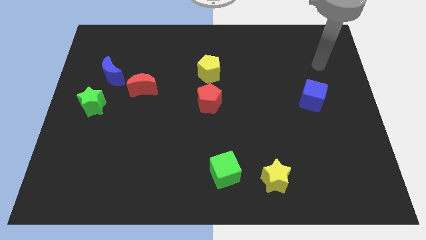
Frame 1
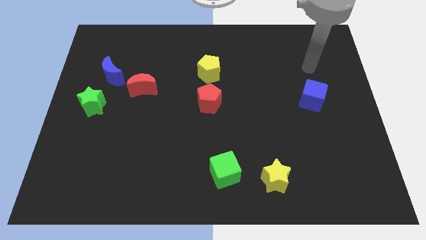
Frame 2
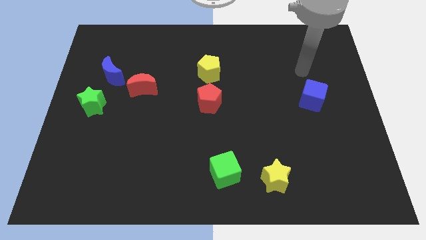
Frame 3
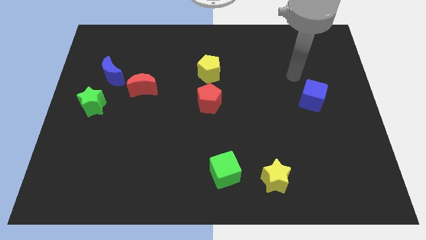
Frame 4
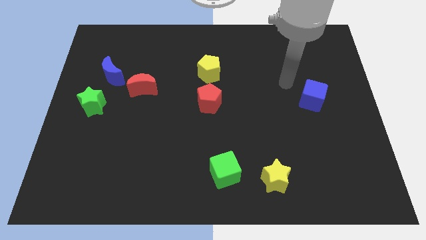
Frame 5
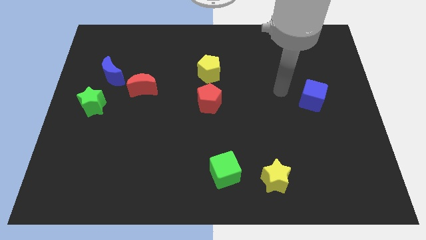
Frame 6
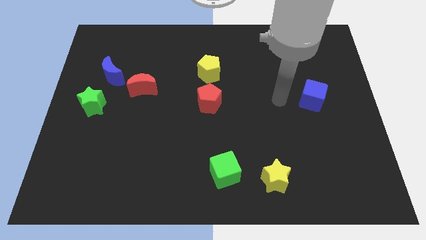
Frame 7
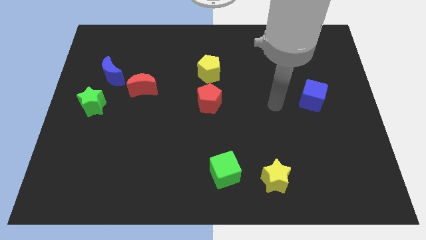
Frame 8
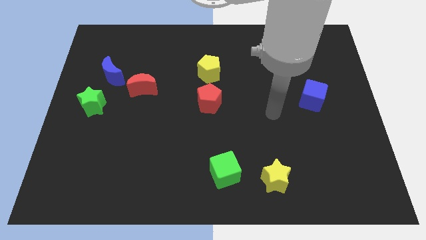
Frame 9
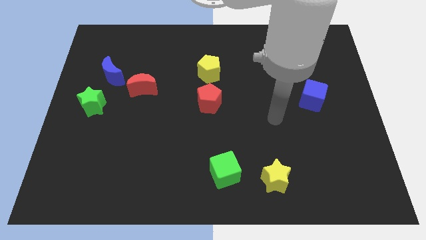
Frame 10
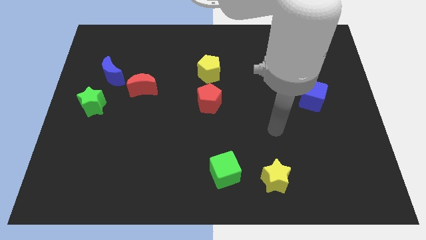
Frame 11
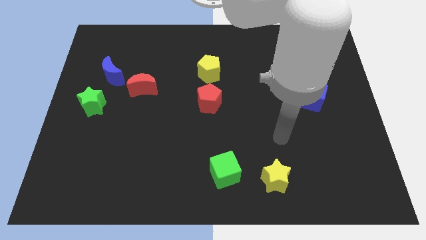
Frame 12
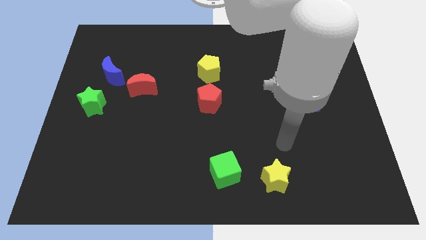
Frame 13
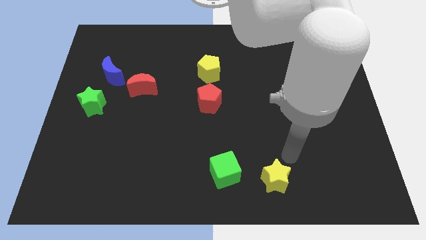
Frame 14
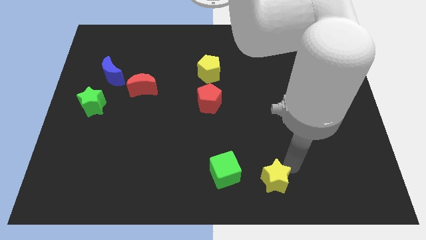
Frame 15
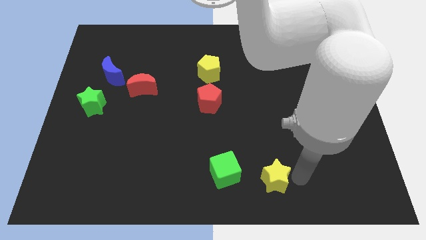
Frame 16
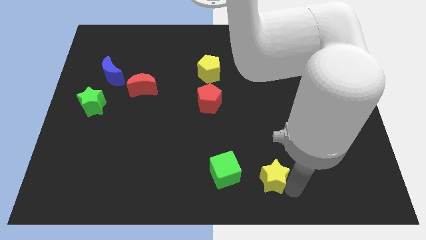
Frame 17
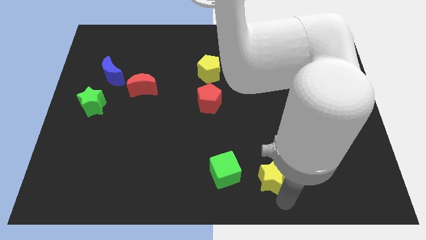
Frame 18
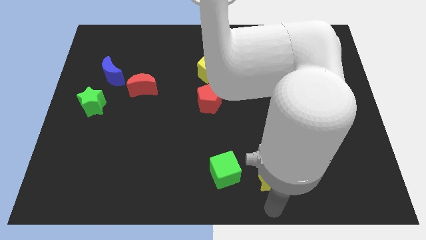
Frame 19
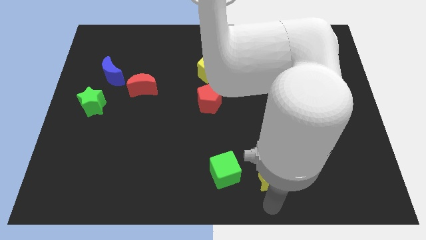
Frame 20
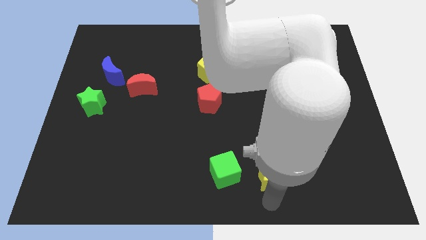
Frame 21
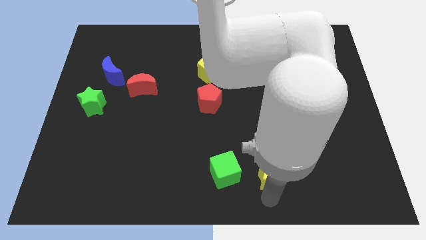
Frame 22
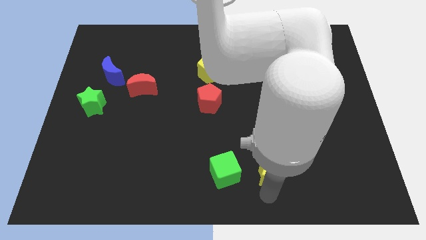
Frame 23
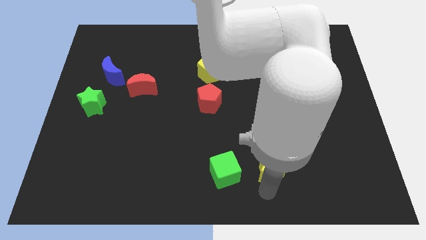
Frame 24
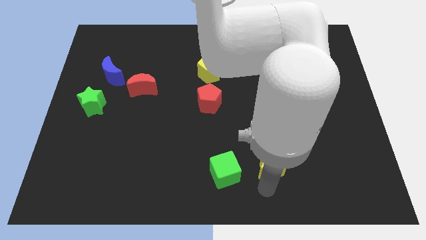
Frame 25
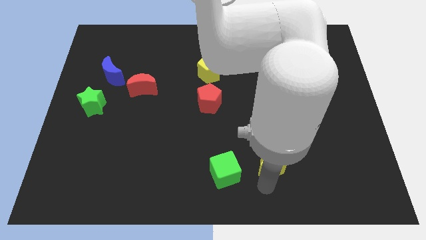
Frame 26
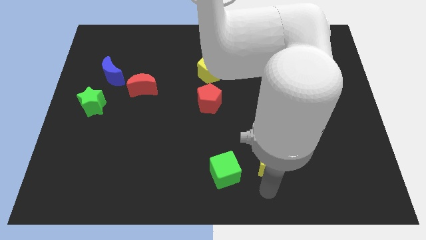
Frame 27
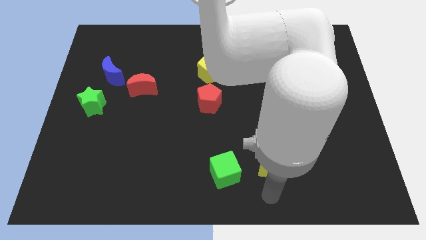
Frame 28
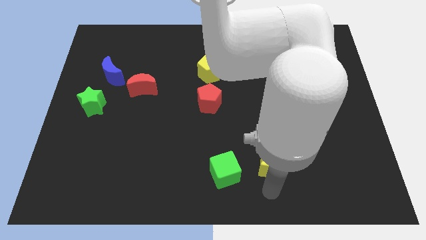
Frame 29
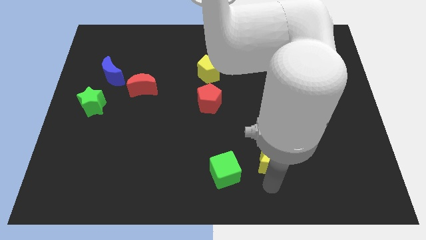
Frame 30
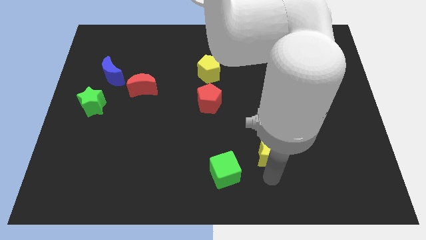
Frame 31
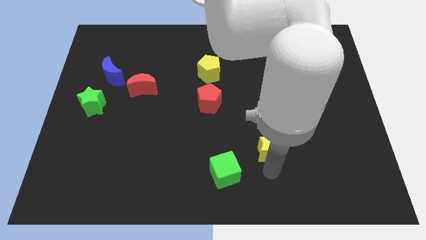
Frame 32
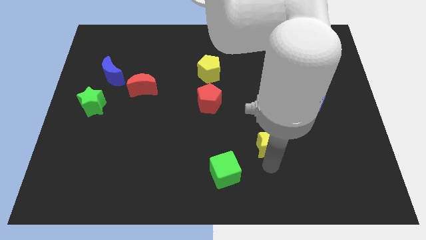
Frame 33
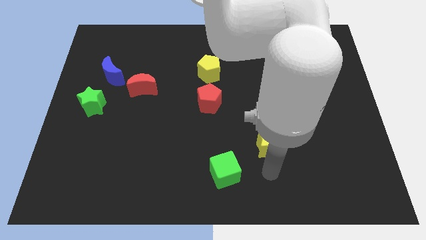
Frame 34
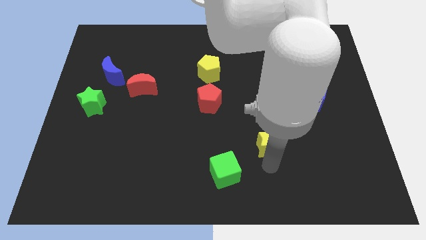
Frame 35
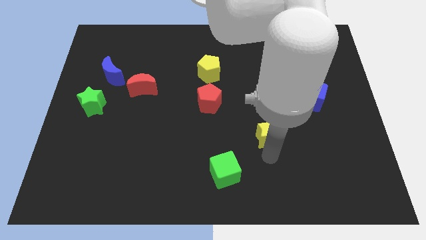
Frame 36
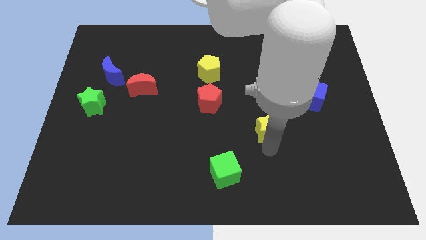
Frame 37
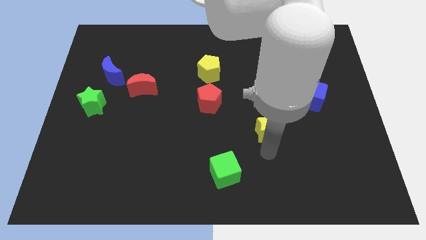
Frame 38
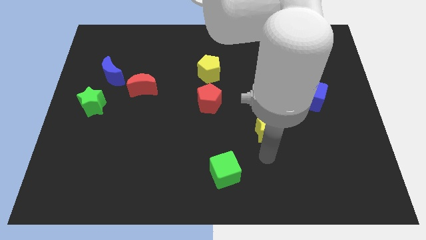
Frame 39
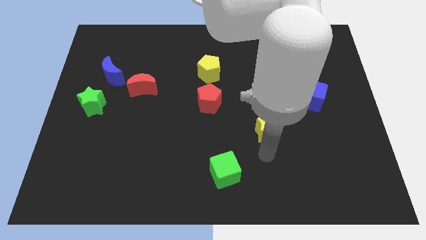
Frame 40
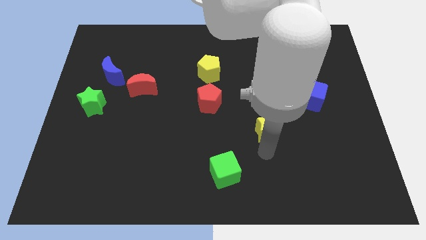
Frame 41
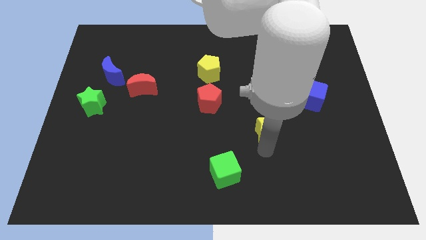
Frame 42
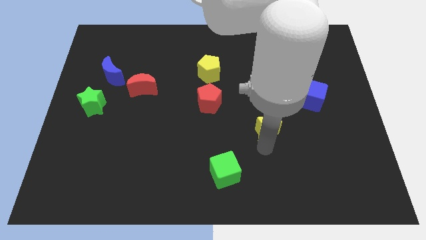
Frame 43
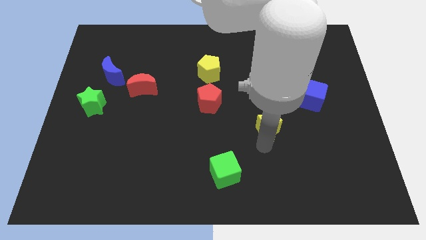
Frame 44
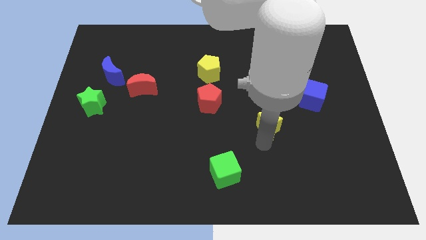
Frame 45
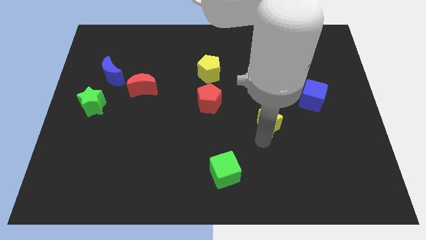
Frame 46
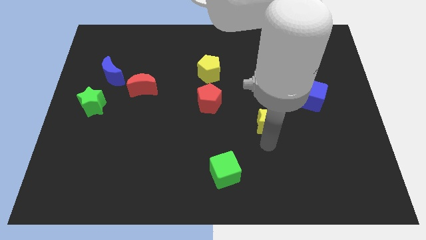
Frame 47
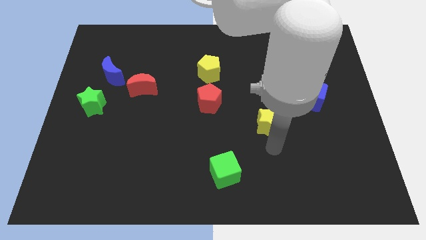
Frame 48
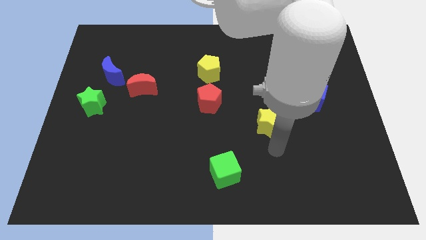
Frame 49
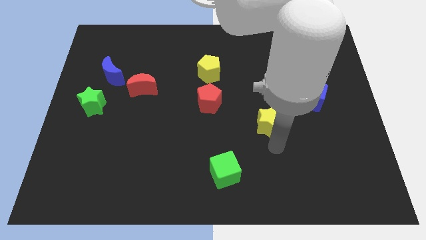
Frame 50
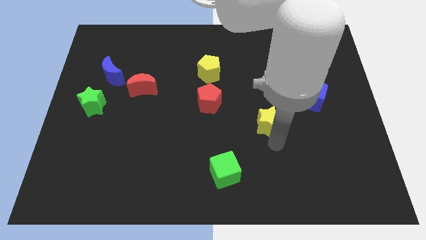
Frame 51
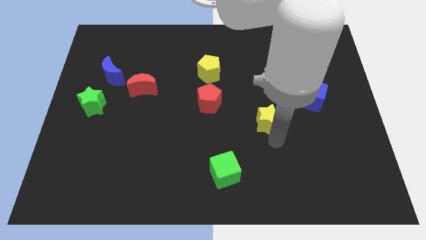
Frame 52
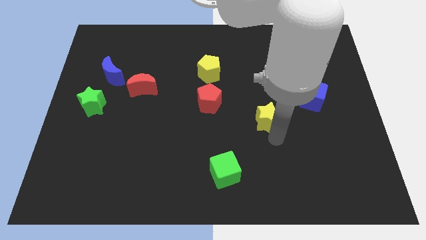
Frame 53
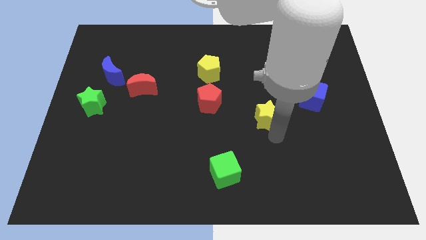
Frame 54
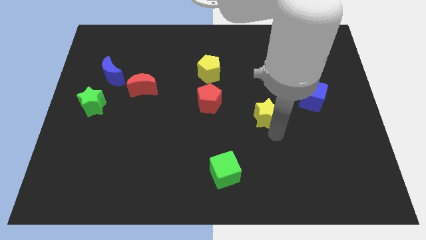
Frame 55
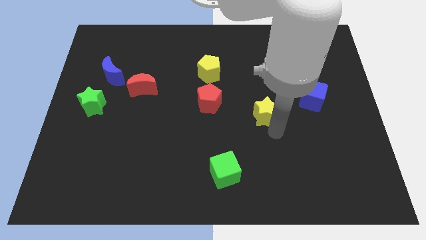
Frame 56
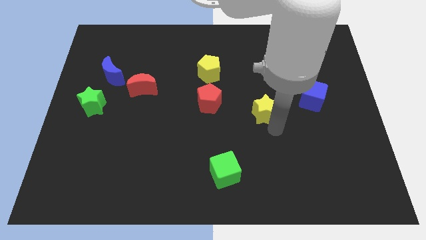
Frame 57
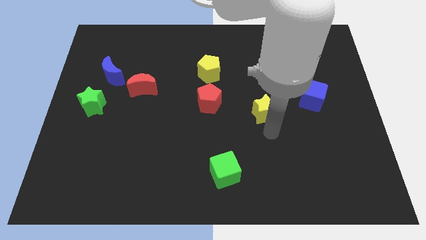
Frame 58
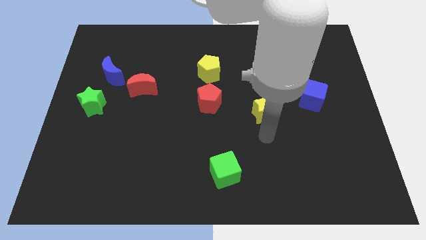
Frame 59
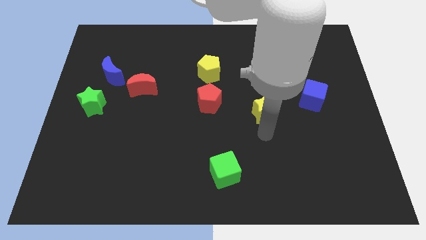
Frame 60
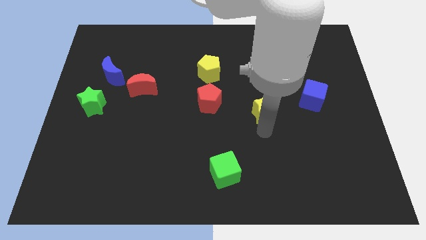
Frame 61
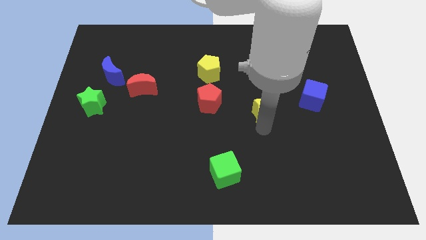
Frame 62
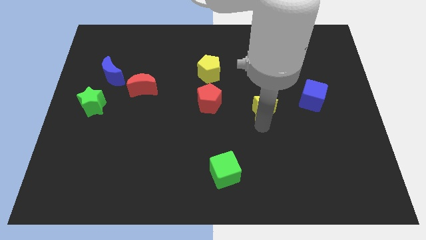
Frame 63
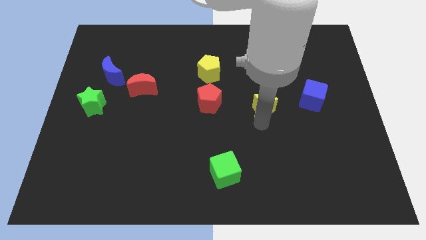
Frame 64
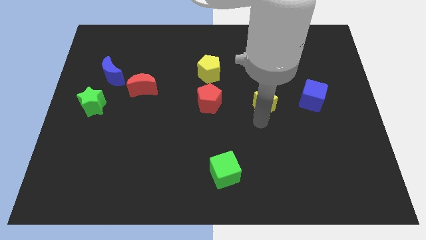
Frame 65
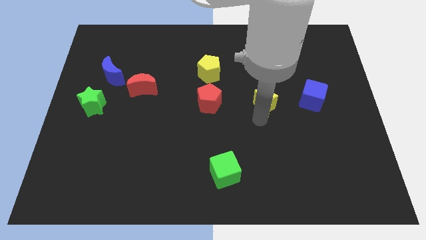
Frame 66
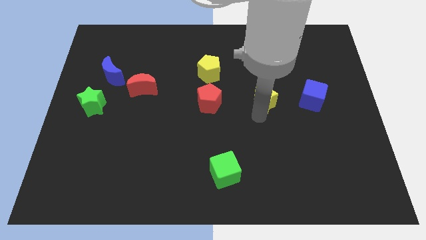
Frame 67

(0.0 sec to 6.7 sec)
move the yellow star upwards

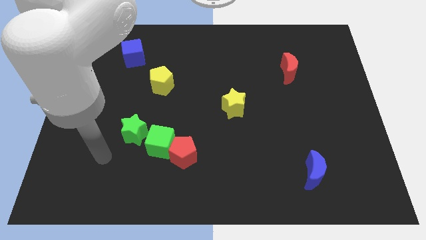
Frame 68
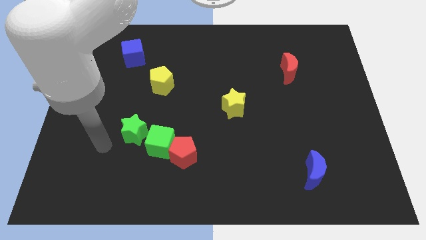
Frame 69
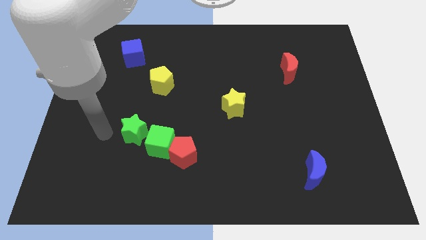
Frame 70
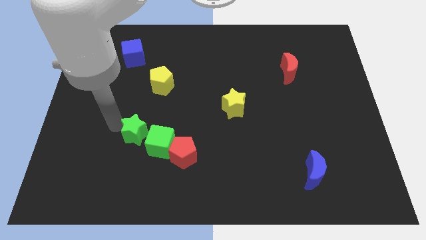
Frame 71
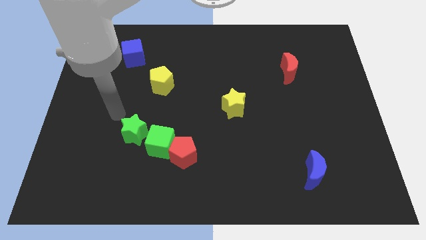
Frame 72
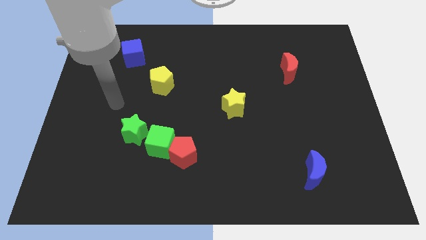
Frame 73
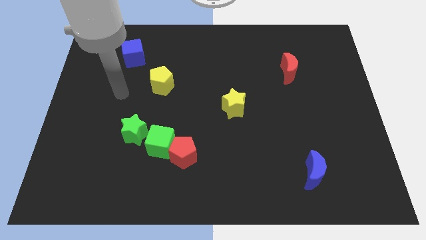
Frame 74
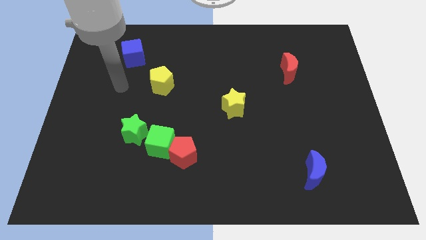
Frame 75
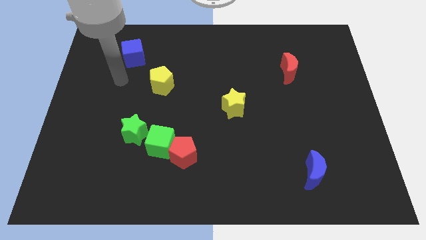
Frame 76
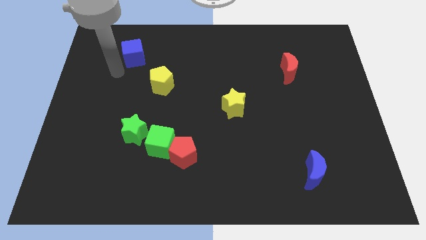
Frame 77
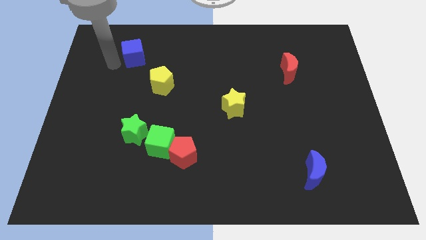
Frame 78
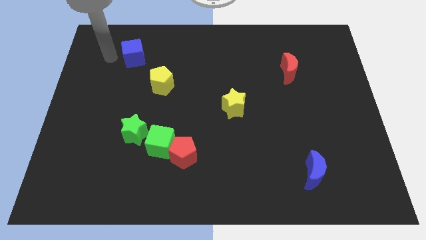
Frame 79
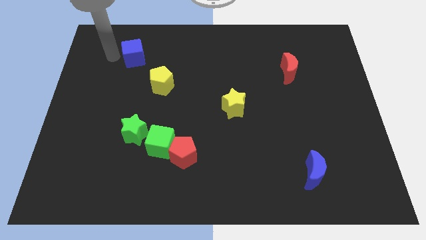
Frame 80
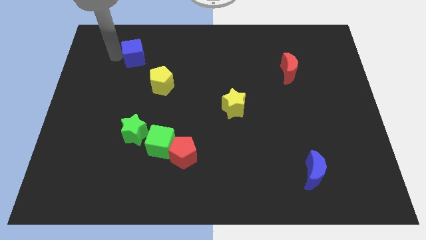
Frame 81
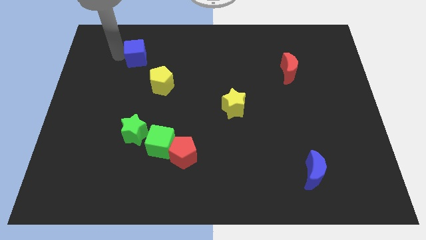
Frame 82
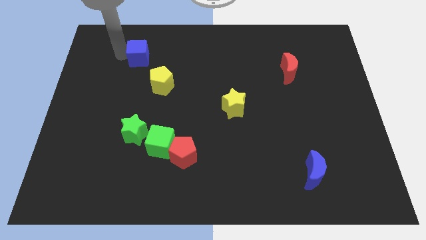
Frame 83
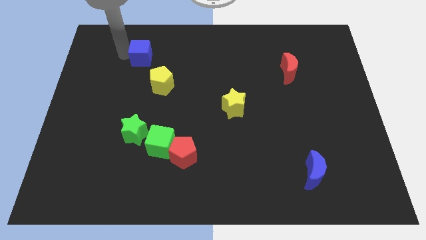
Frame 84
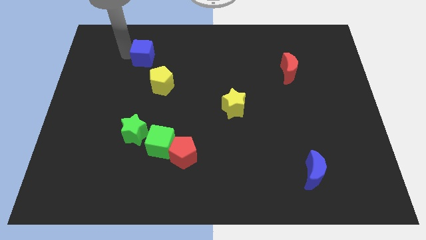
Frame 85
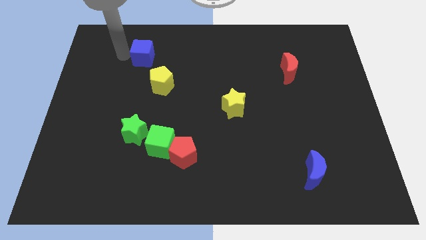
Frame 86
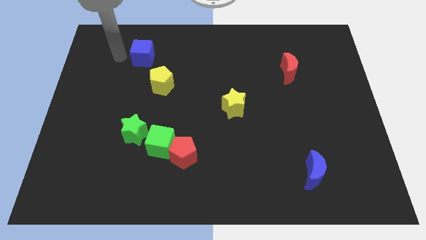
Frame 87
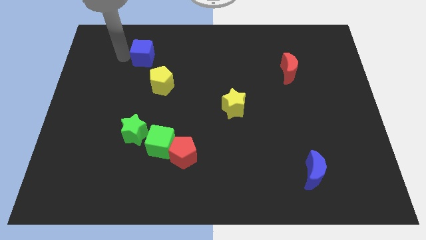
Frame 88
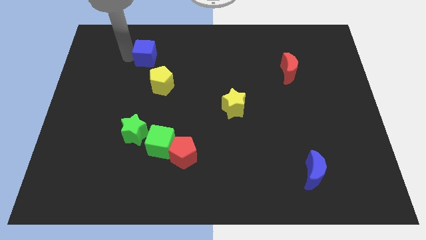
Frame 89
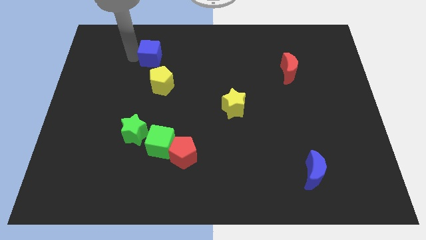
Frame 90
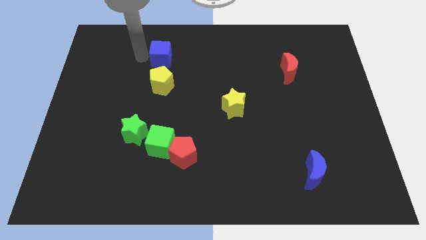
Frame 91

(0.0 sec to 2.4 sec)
push the blue cube to the right a little
